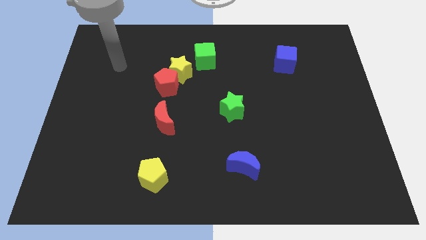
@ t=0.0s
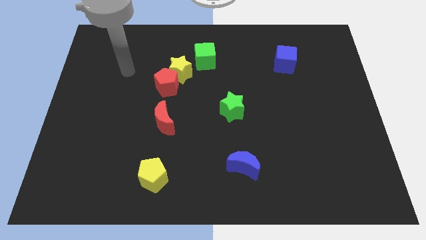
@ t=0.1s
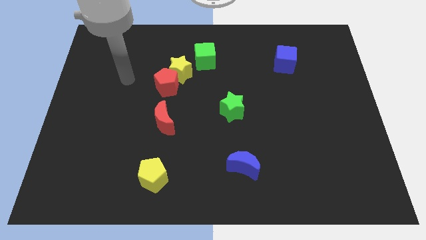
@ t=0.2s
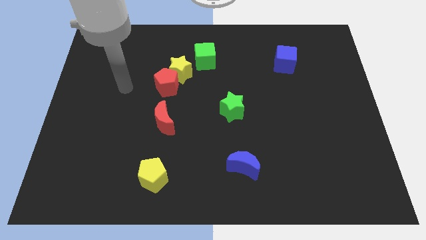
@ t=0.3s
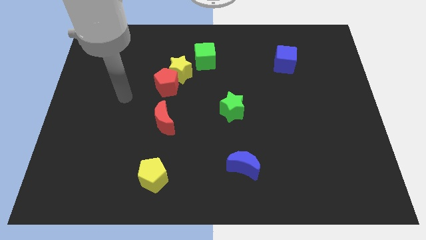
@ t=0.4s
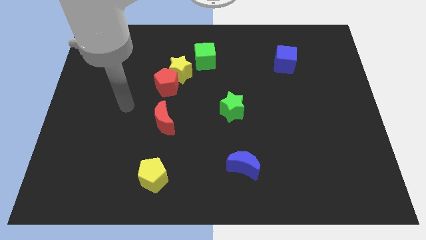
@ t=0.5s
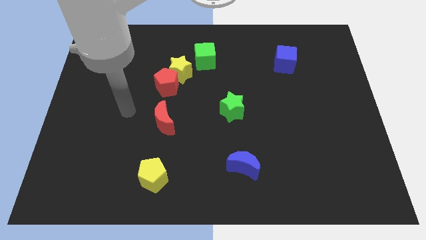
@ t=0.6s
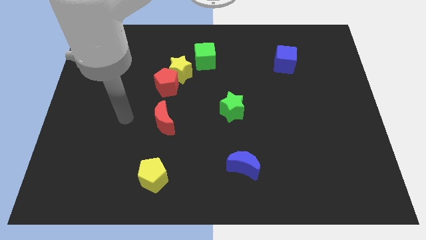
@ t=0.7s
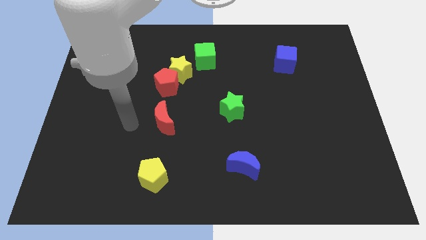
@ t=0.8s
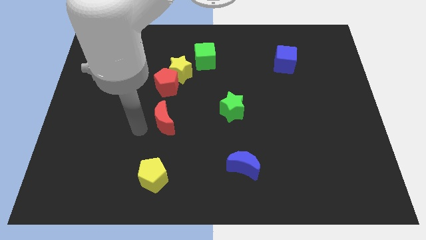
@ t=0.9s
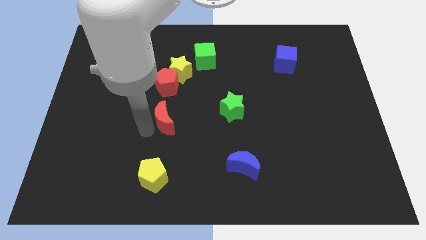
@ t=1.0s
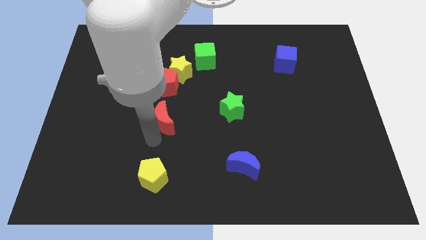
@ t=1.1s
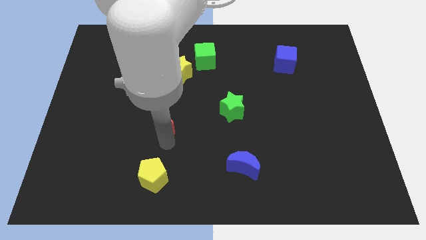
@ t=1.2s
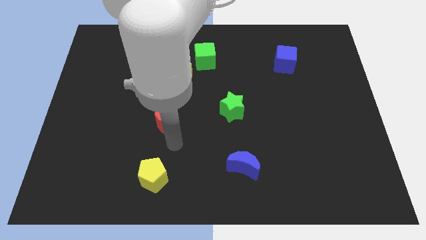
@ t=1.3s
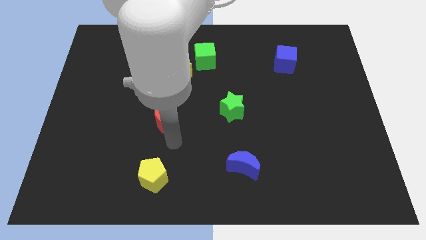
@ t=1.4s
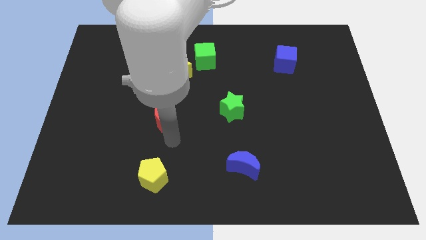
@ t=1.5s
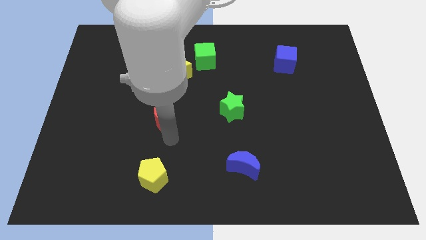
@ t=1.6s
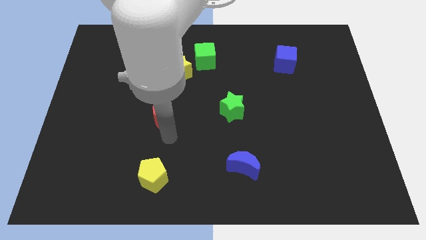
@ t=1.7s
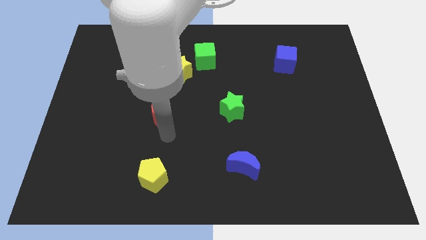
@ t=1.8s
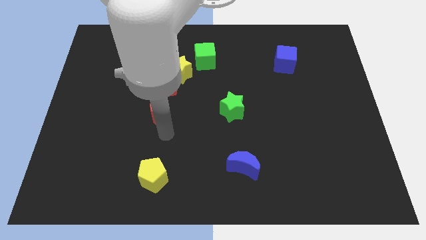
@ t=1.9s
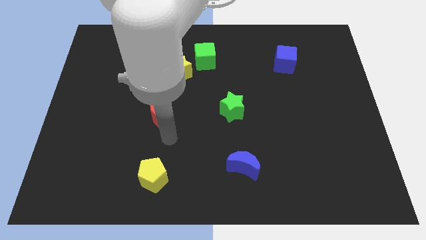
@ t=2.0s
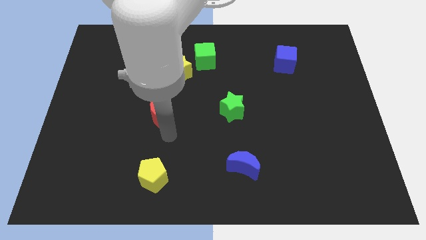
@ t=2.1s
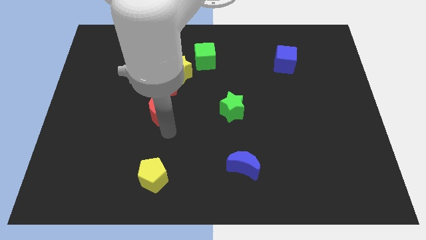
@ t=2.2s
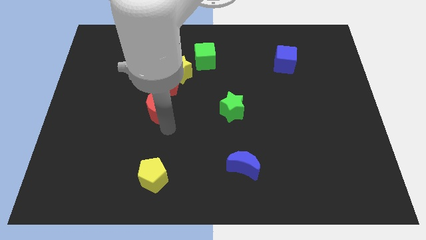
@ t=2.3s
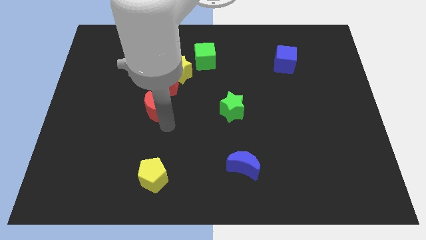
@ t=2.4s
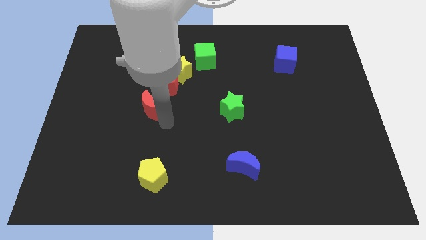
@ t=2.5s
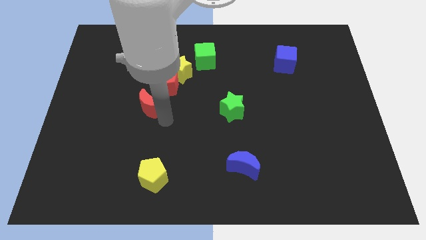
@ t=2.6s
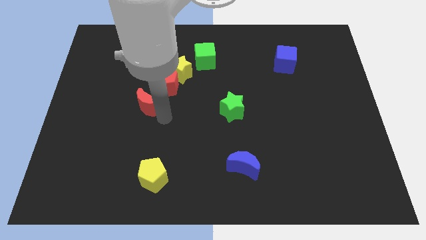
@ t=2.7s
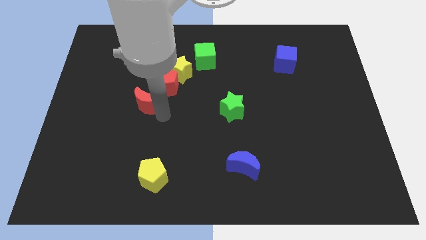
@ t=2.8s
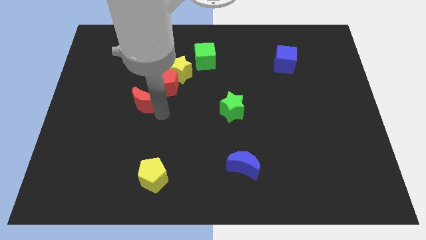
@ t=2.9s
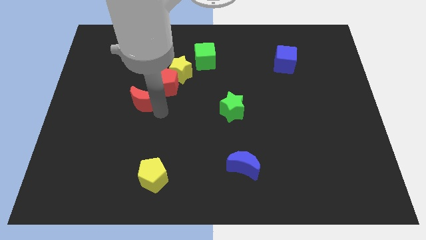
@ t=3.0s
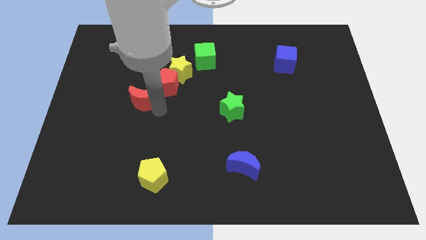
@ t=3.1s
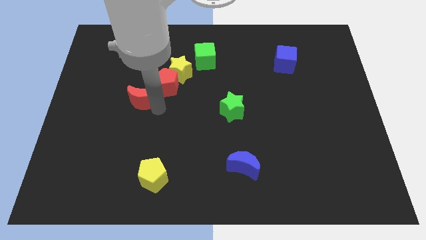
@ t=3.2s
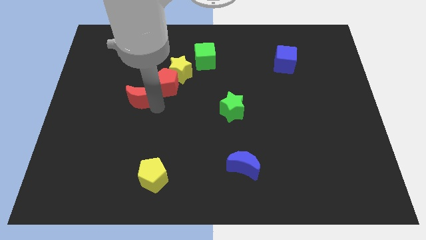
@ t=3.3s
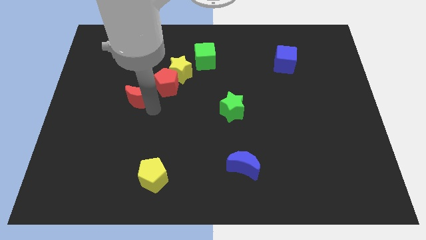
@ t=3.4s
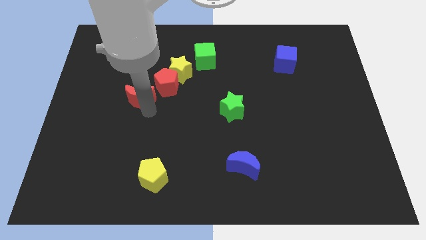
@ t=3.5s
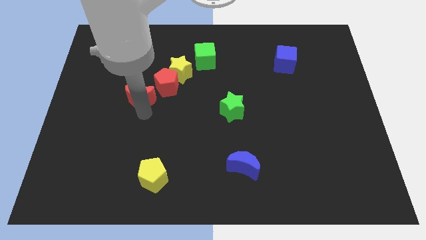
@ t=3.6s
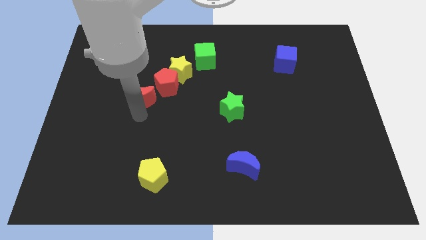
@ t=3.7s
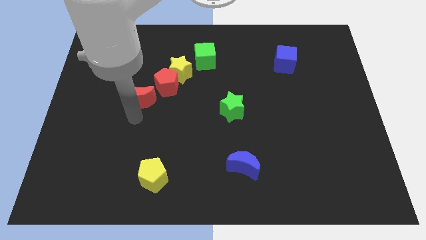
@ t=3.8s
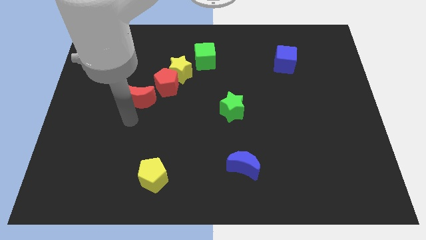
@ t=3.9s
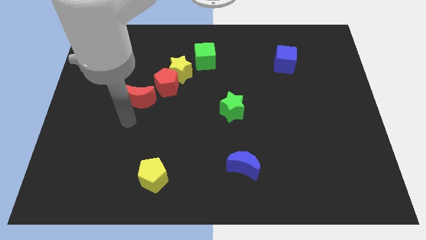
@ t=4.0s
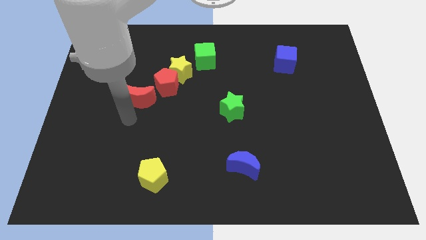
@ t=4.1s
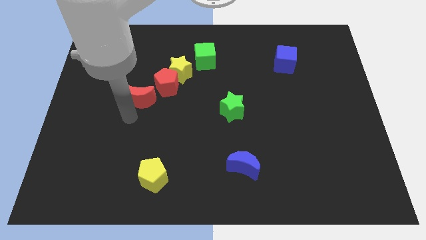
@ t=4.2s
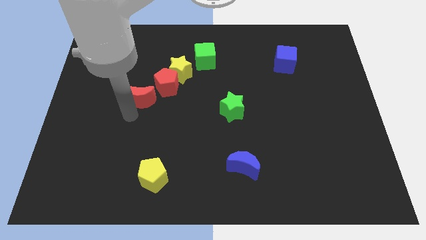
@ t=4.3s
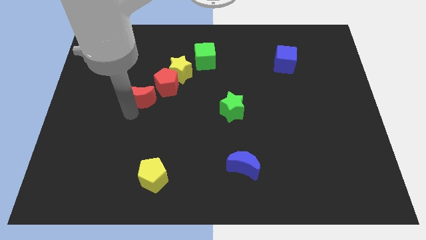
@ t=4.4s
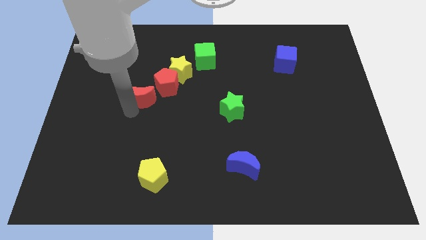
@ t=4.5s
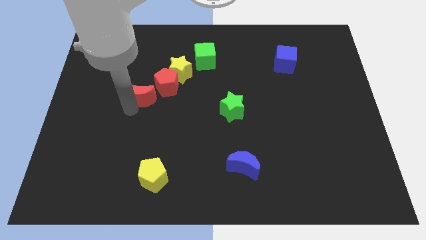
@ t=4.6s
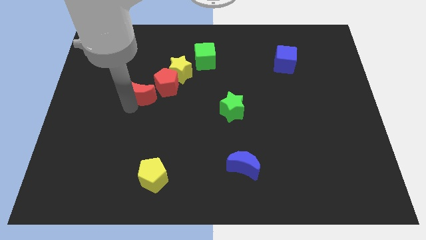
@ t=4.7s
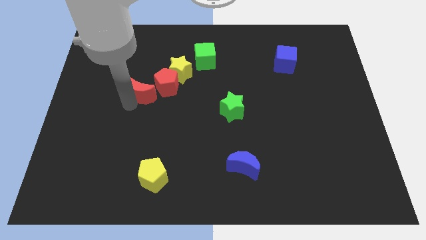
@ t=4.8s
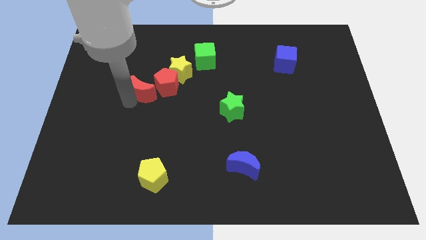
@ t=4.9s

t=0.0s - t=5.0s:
slide the red moon a little up

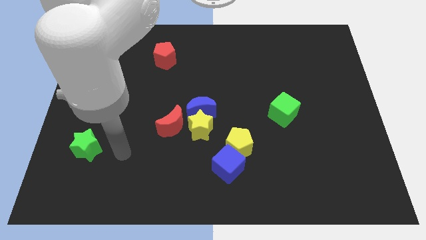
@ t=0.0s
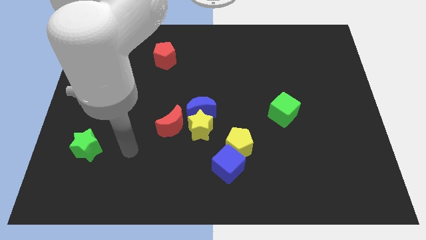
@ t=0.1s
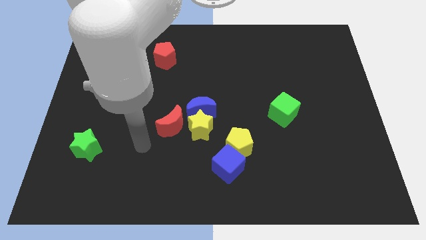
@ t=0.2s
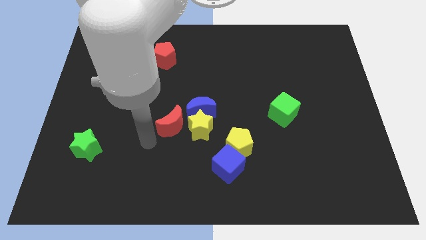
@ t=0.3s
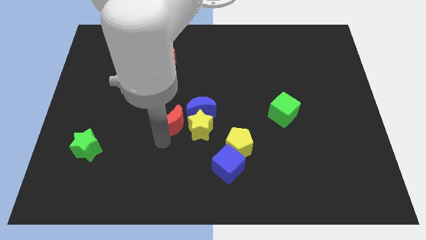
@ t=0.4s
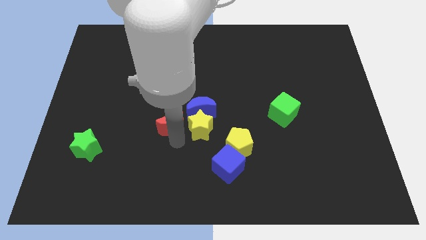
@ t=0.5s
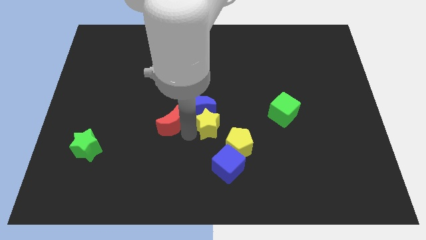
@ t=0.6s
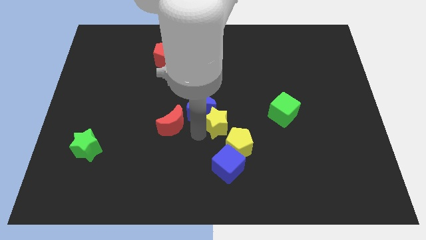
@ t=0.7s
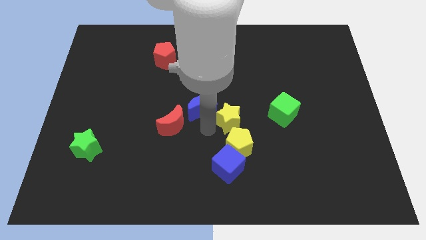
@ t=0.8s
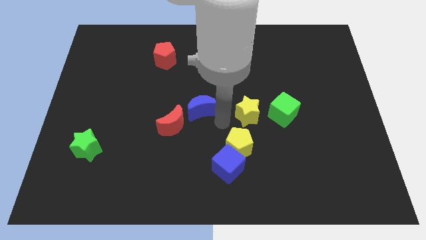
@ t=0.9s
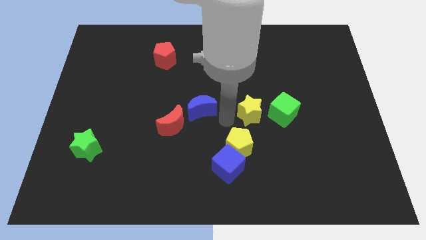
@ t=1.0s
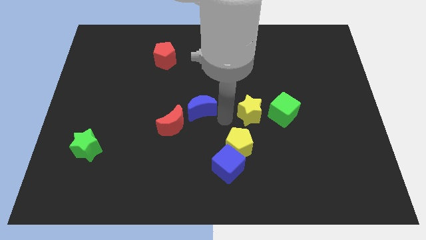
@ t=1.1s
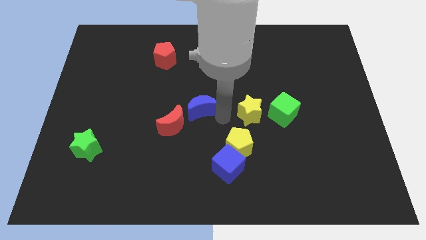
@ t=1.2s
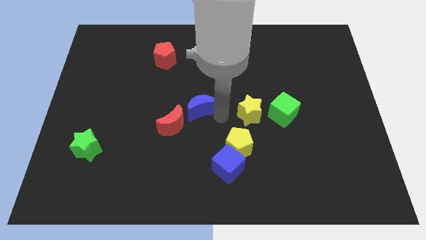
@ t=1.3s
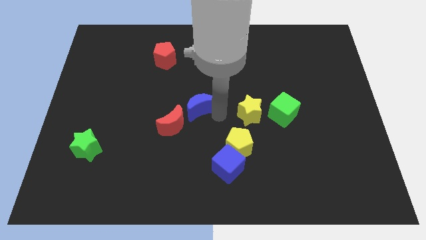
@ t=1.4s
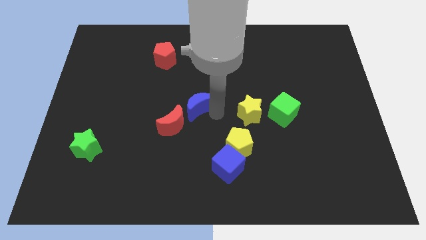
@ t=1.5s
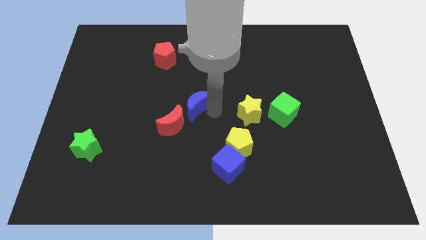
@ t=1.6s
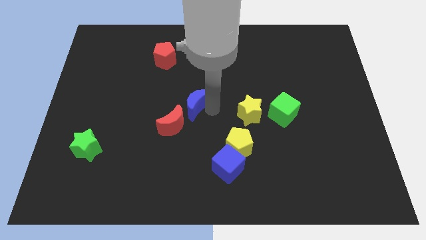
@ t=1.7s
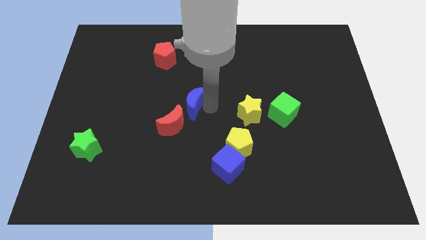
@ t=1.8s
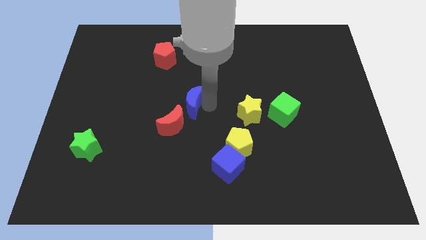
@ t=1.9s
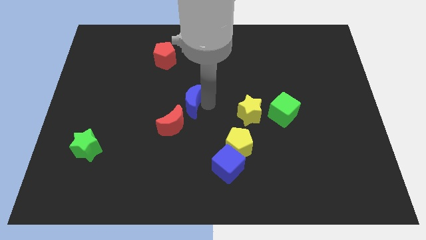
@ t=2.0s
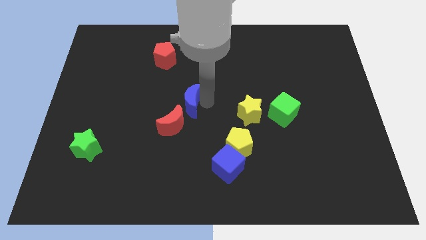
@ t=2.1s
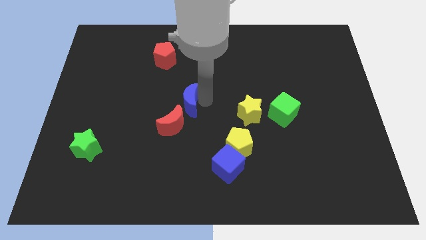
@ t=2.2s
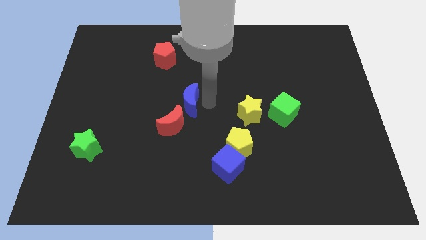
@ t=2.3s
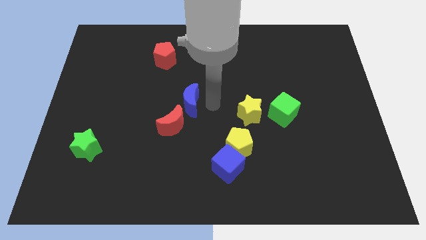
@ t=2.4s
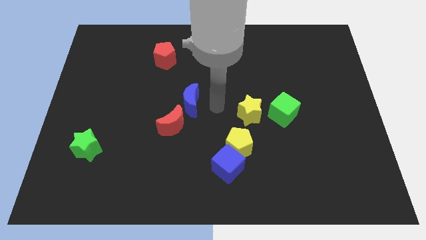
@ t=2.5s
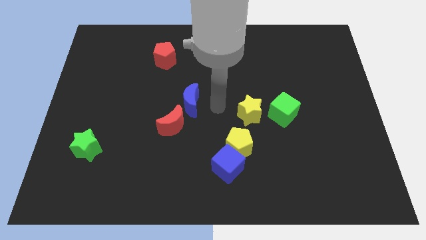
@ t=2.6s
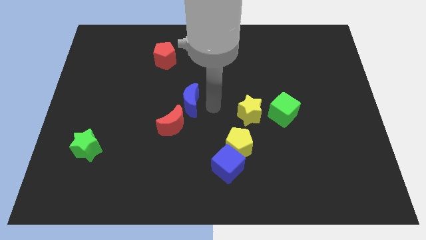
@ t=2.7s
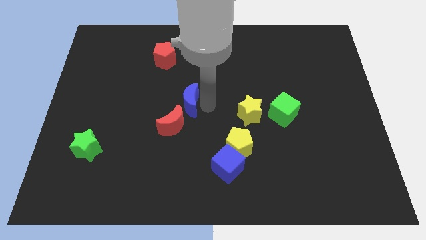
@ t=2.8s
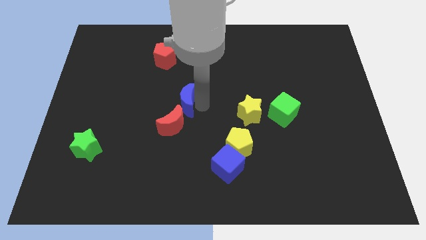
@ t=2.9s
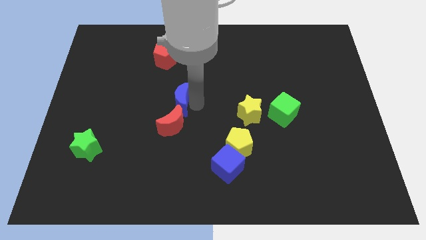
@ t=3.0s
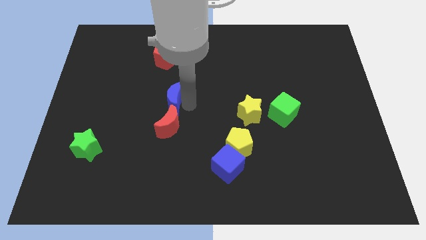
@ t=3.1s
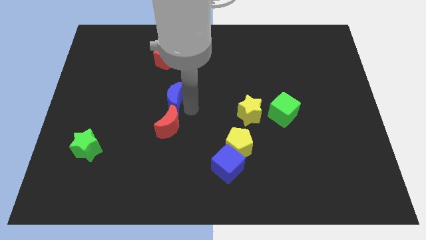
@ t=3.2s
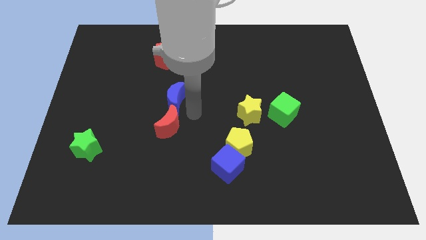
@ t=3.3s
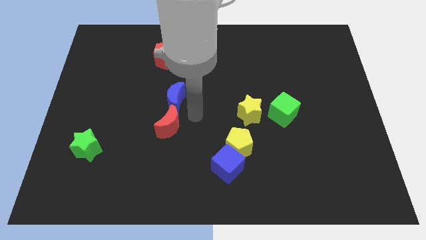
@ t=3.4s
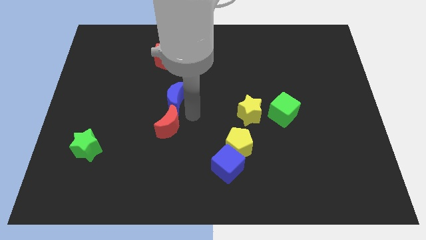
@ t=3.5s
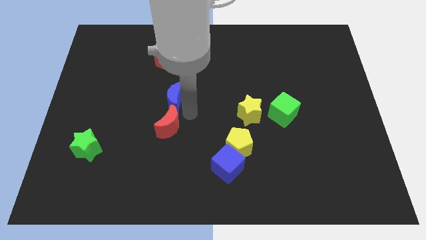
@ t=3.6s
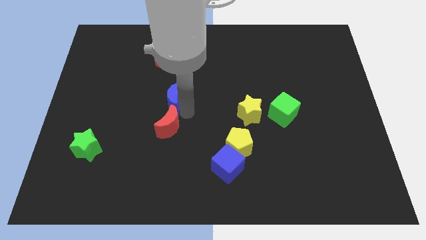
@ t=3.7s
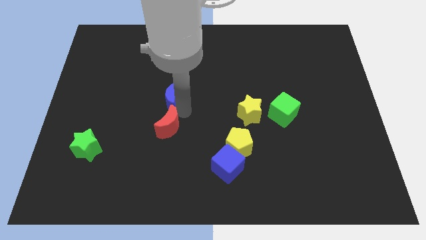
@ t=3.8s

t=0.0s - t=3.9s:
slide the blue moon a little upwards and then to the left

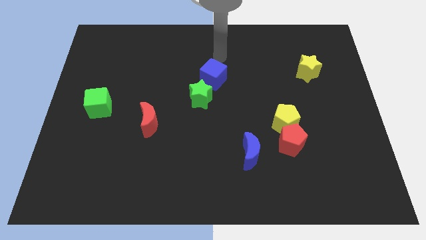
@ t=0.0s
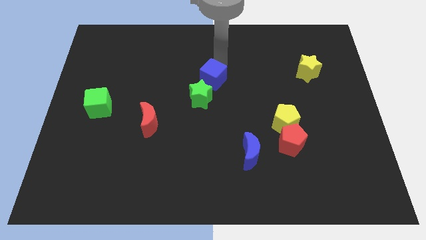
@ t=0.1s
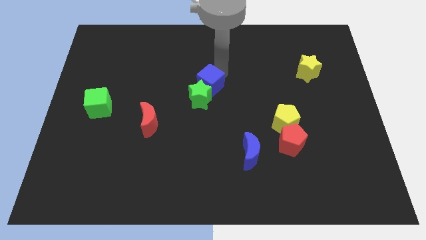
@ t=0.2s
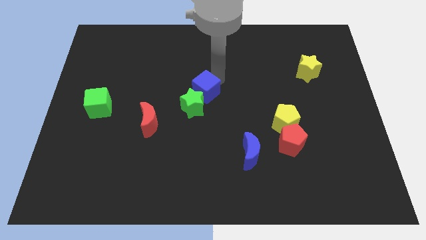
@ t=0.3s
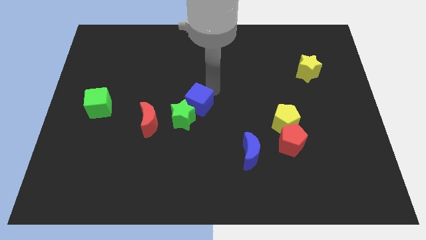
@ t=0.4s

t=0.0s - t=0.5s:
slightly push the green star downwards and then to the left
